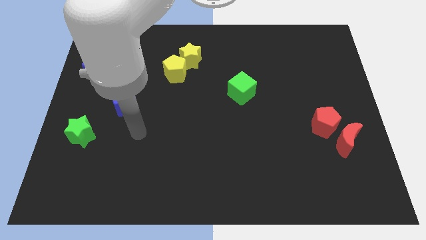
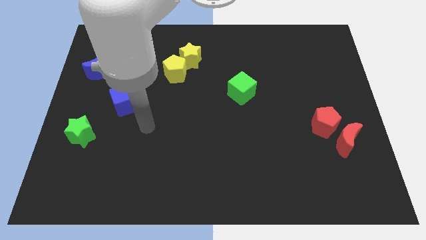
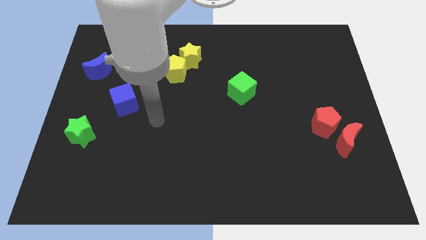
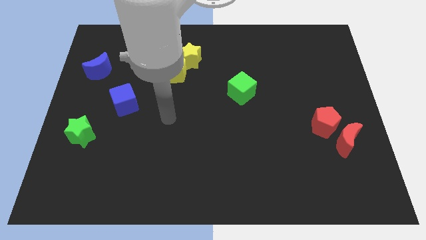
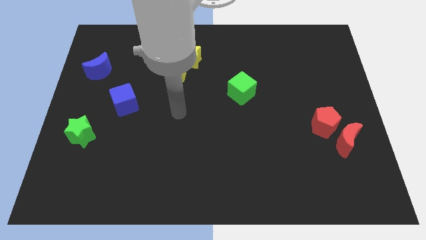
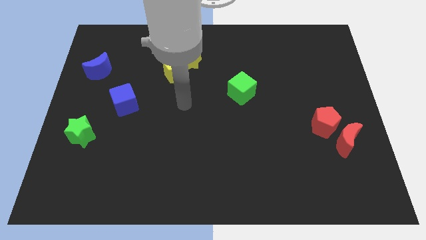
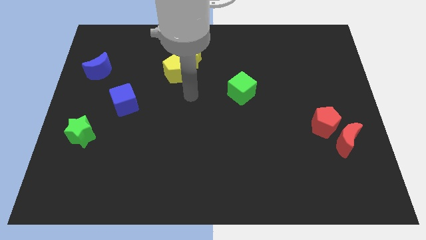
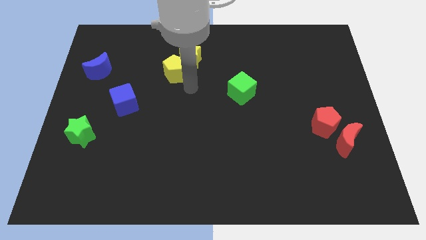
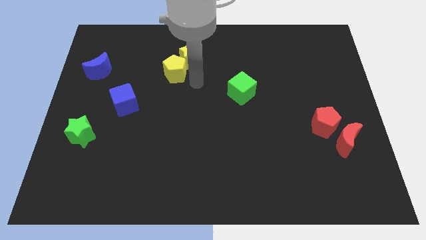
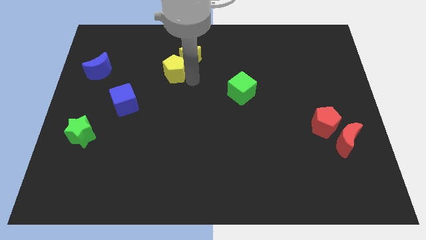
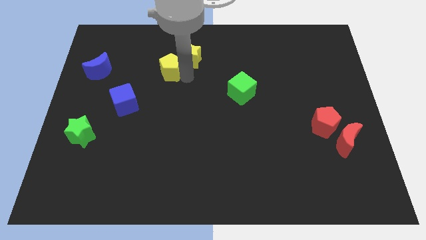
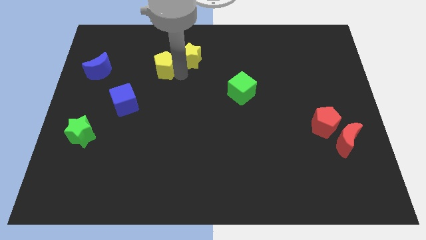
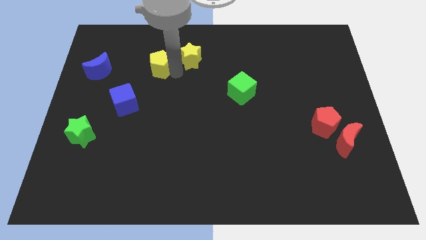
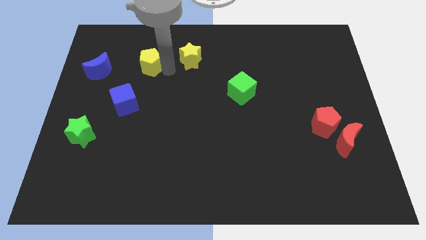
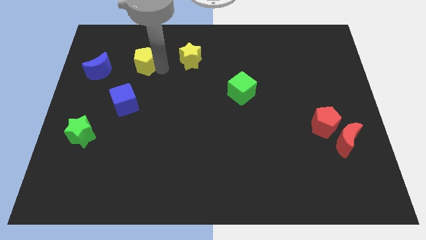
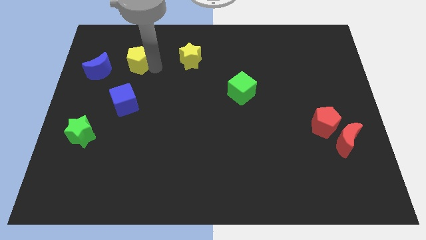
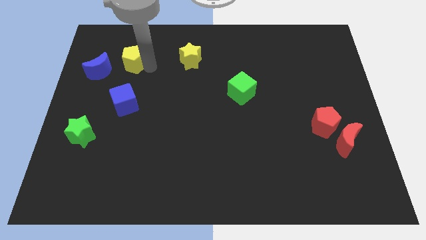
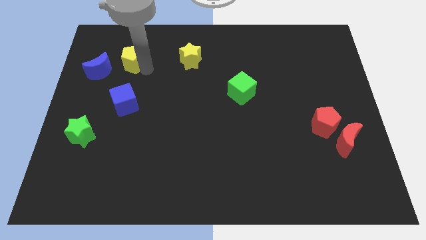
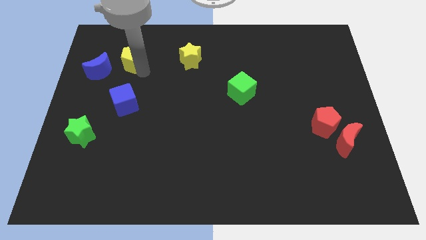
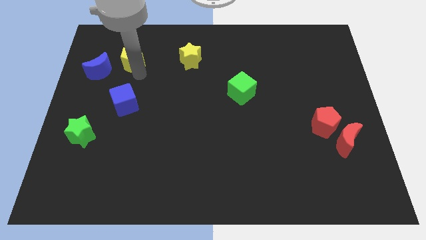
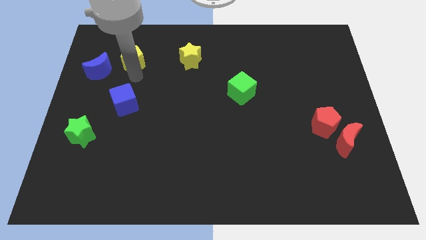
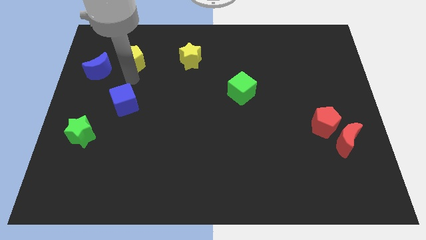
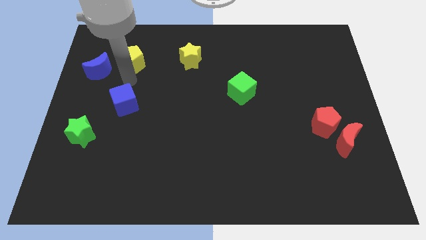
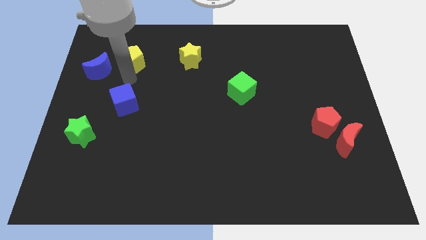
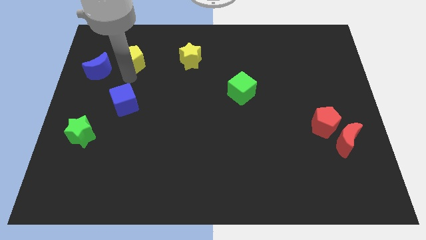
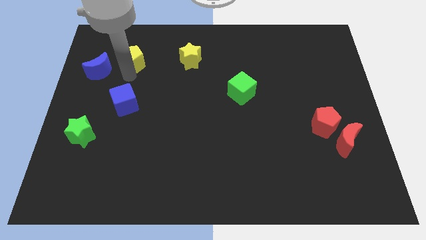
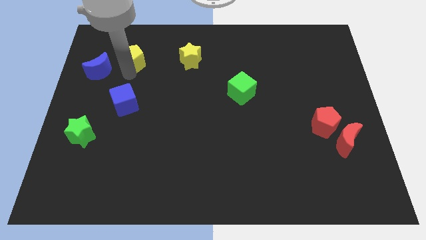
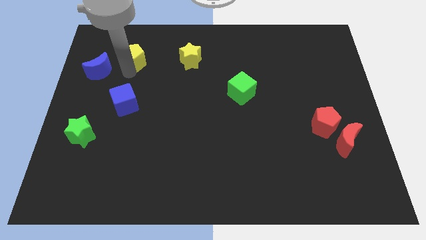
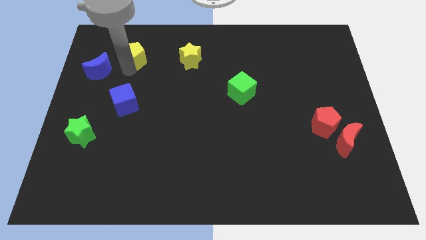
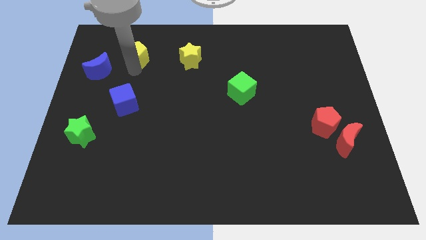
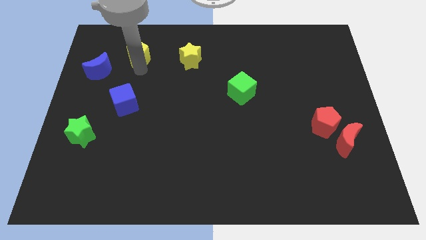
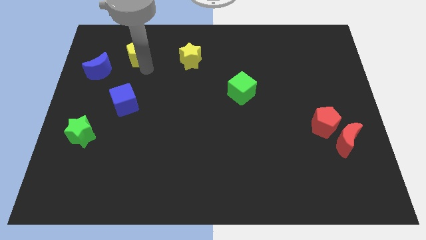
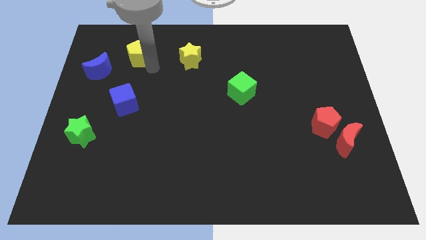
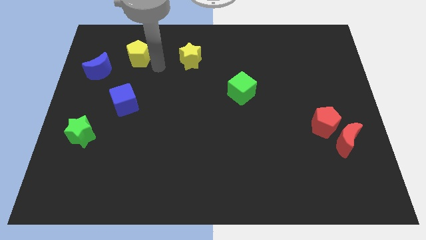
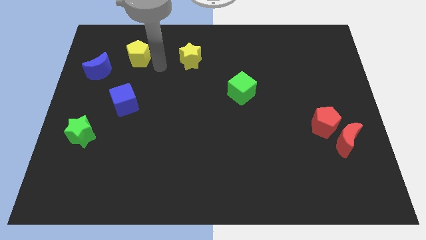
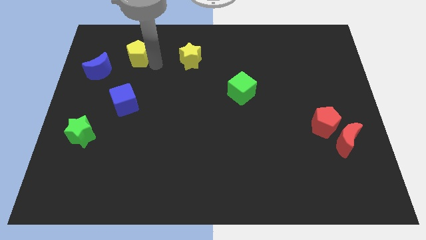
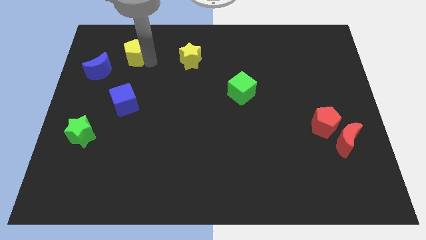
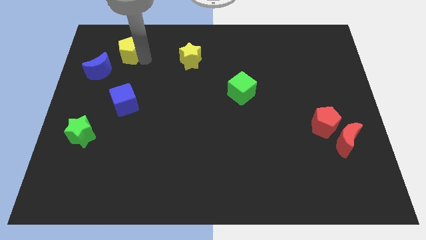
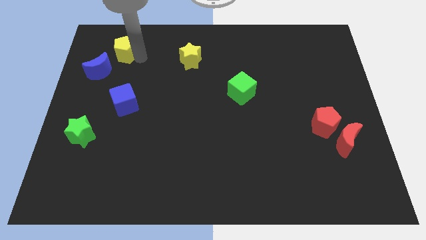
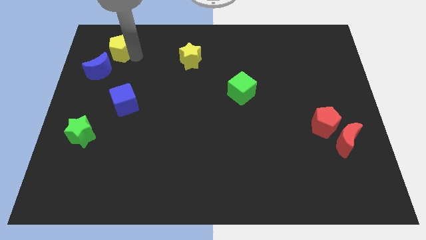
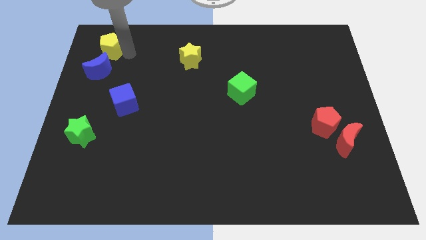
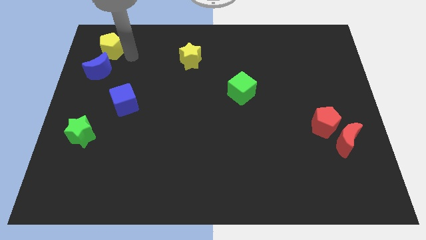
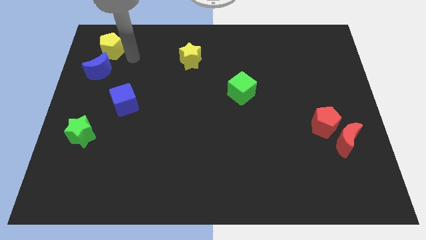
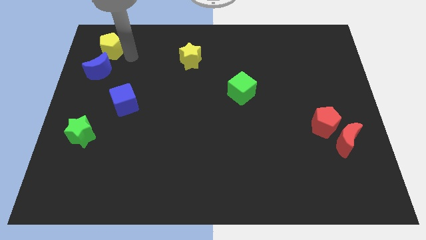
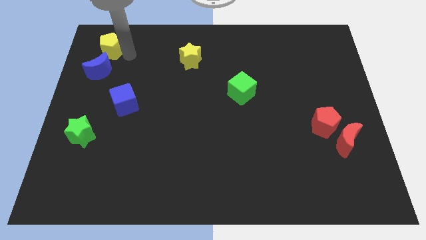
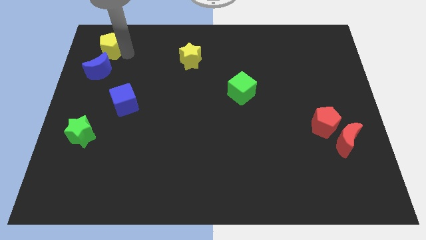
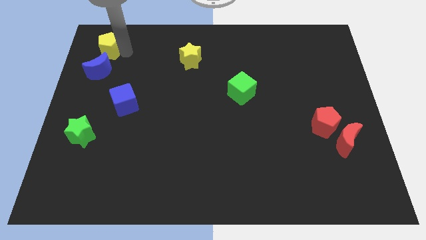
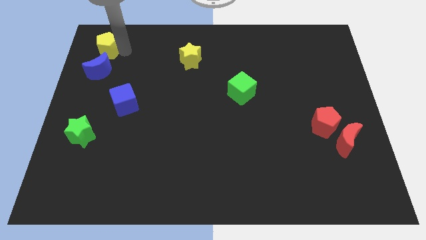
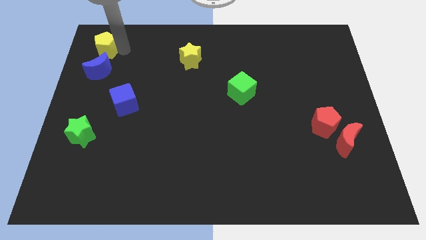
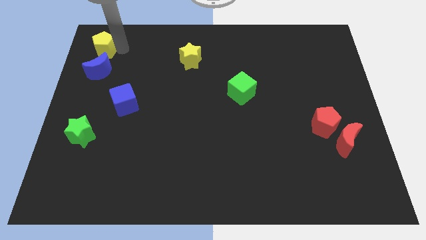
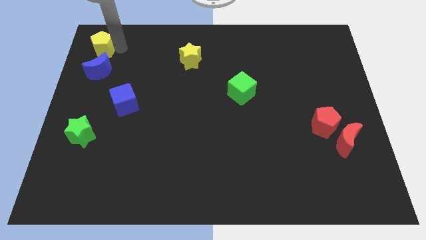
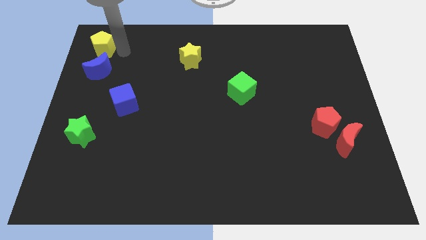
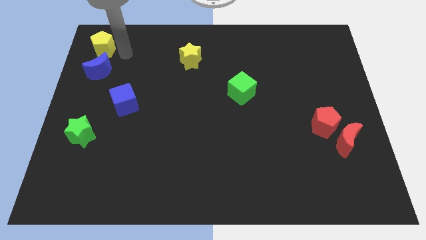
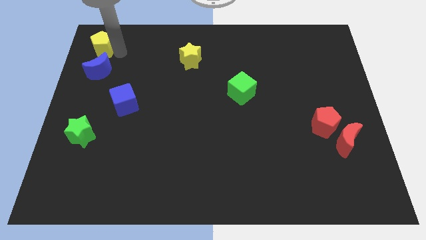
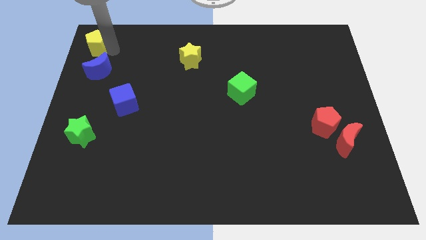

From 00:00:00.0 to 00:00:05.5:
put the yellow pentagon to the top left corner

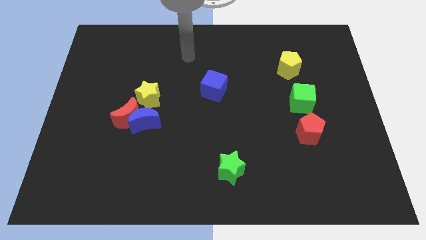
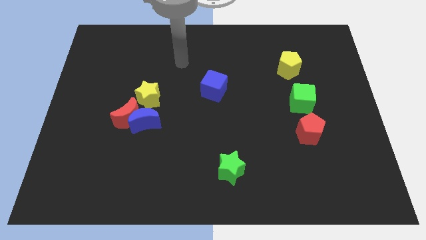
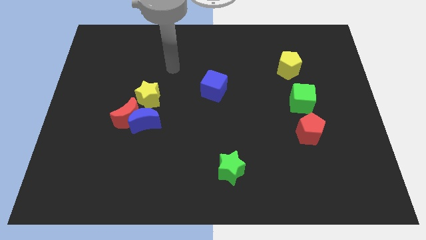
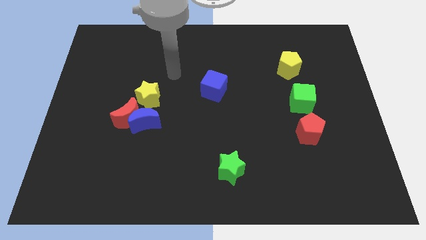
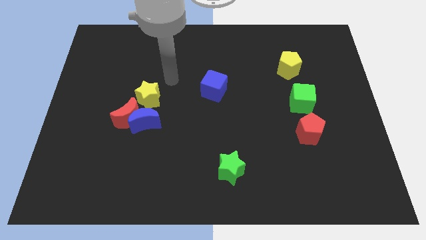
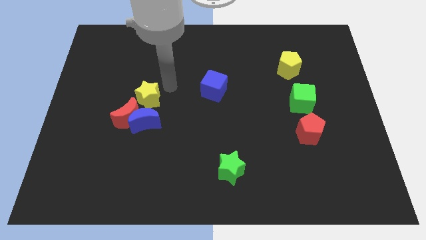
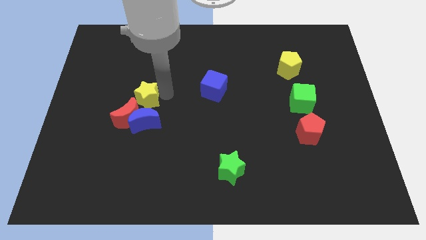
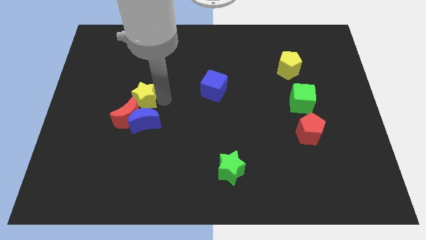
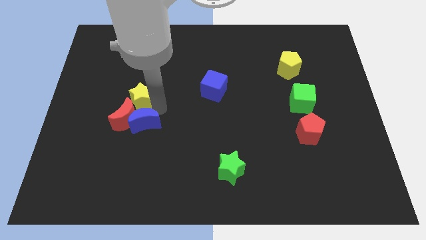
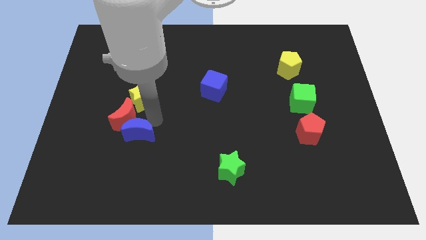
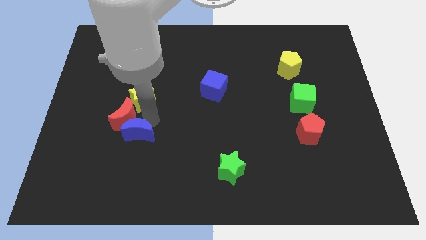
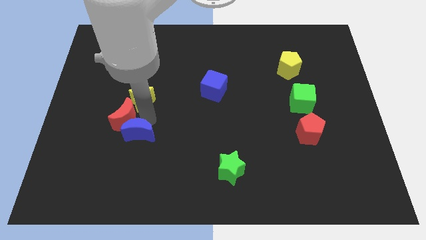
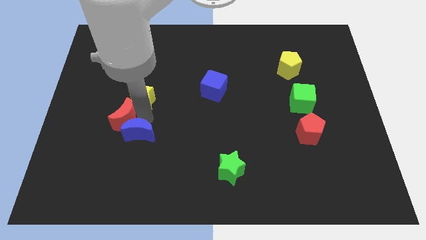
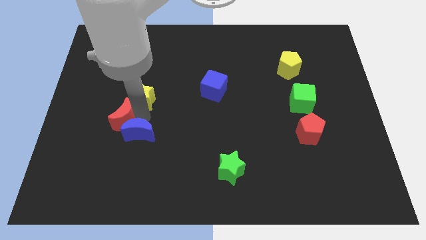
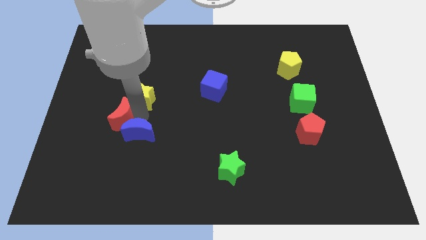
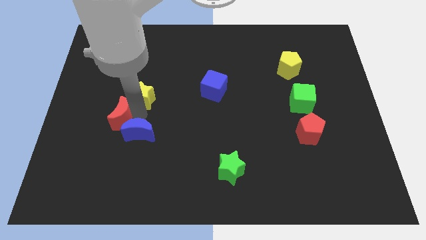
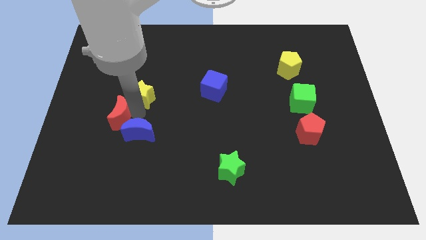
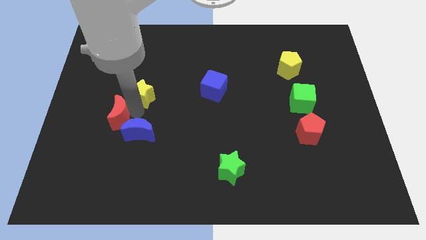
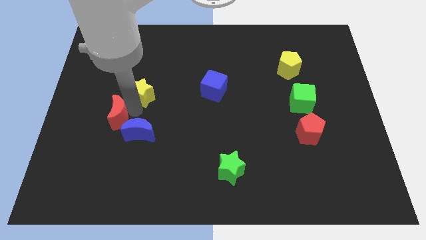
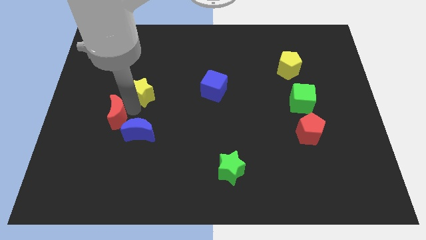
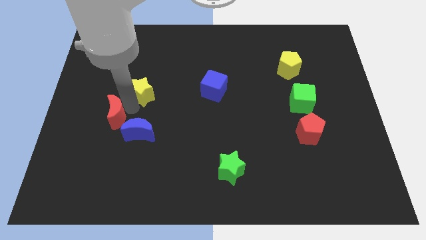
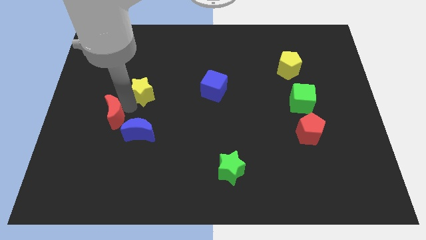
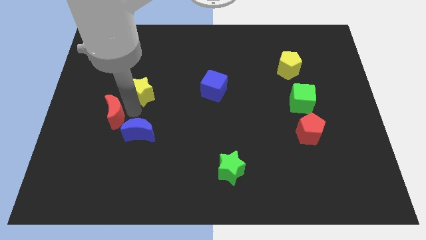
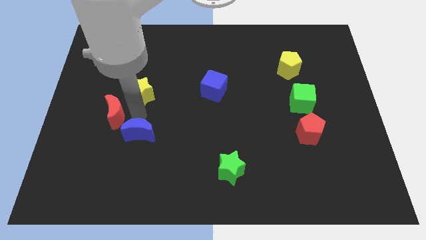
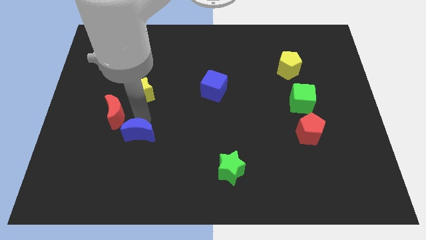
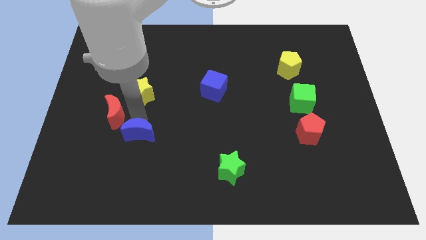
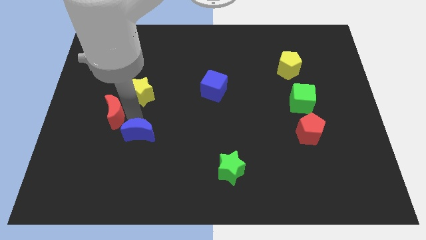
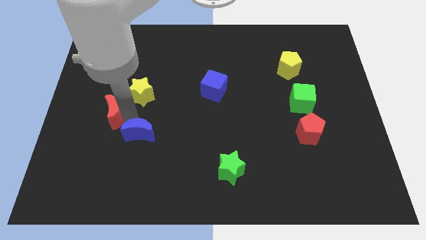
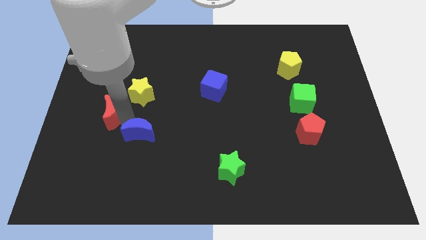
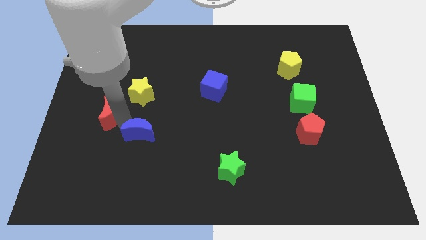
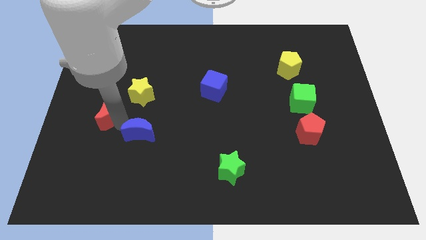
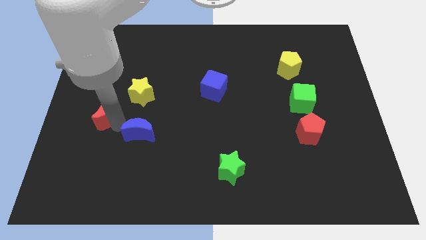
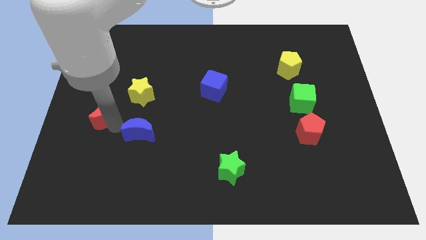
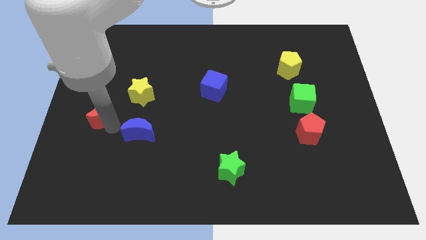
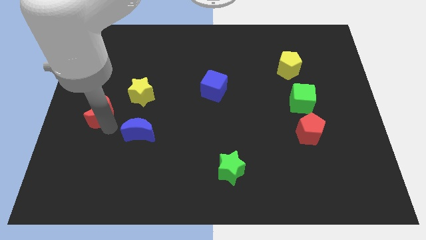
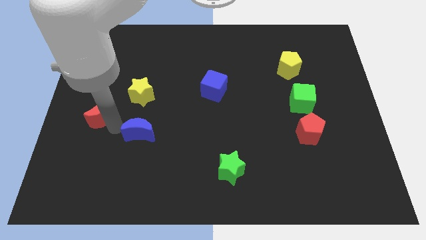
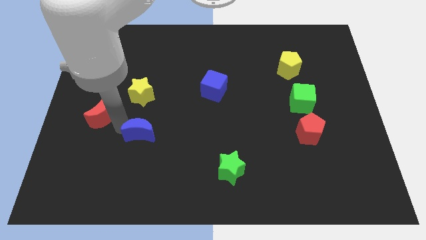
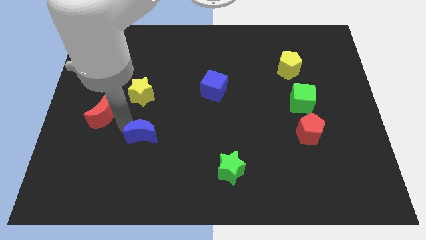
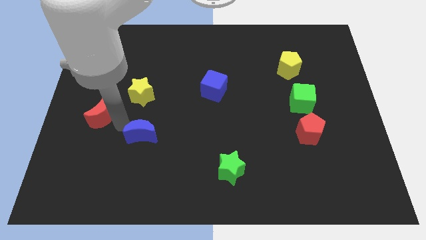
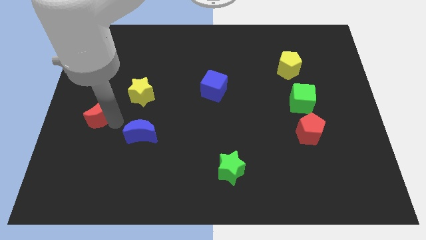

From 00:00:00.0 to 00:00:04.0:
move the red moon to the left side
